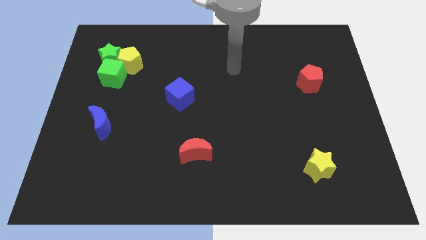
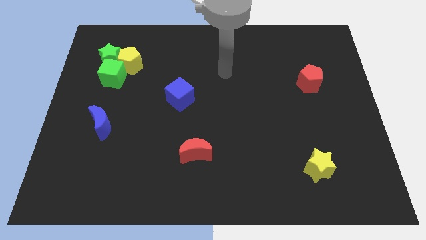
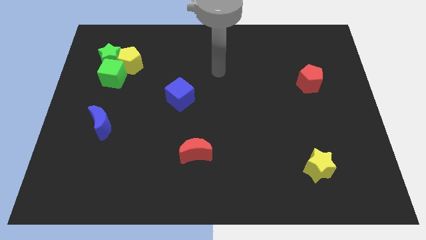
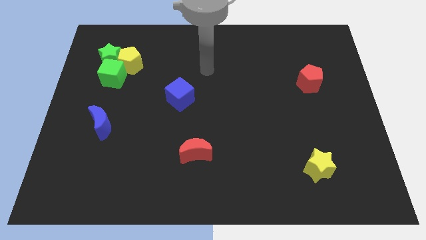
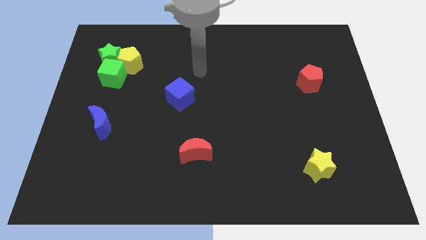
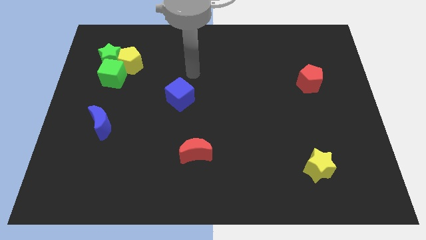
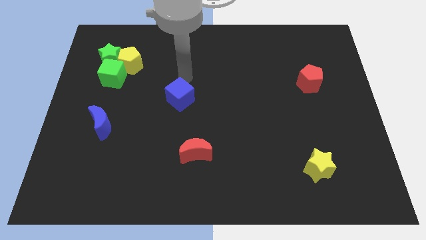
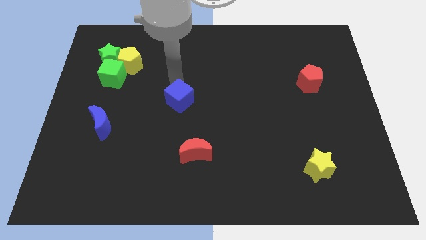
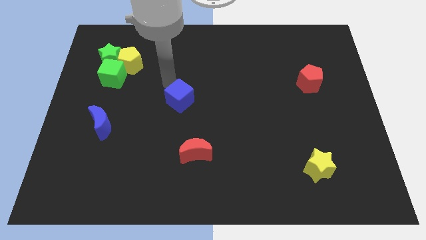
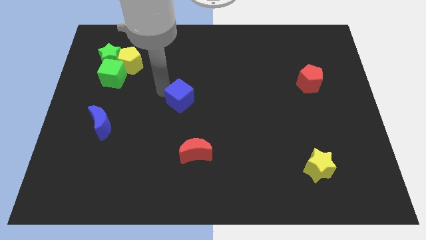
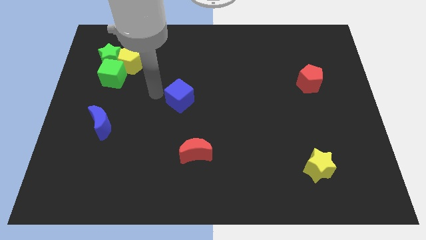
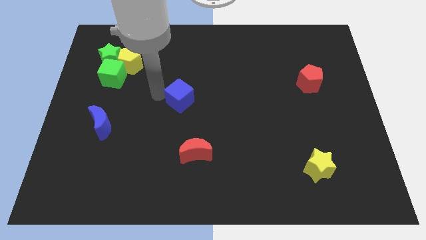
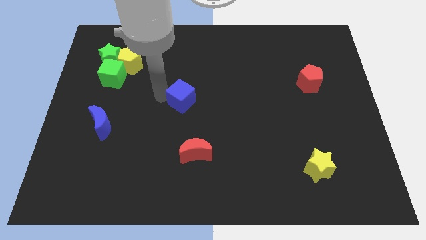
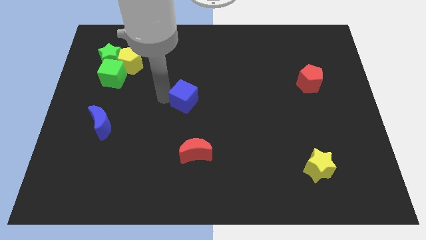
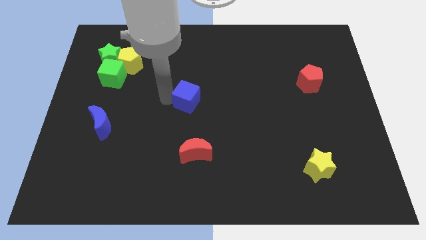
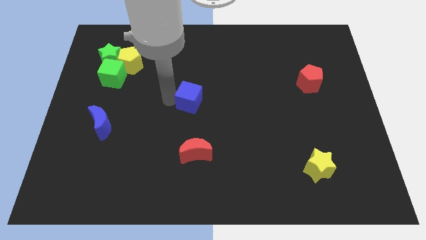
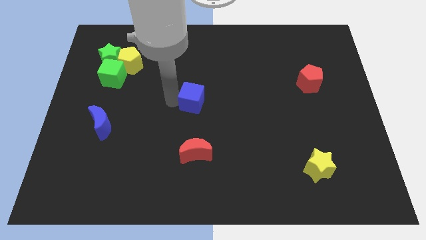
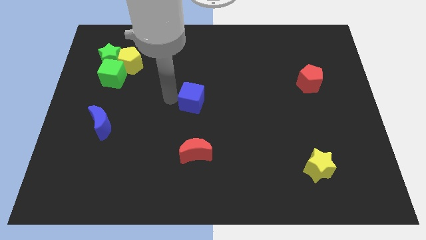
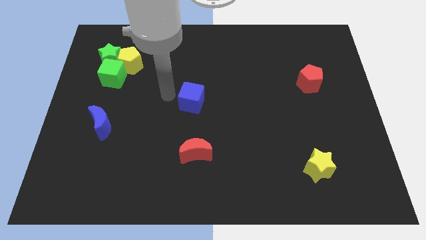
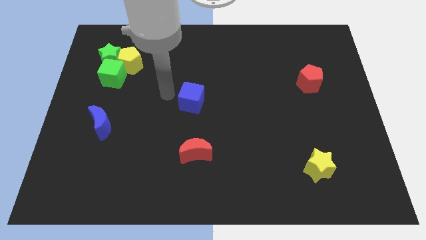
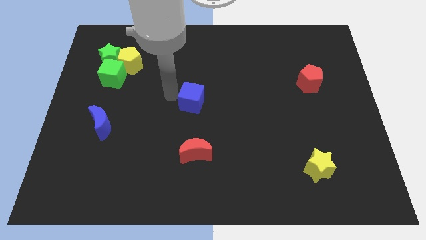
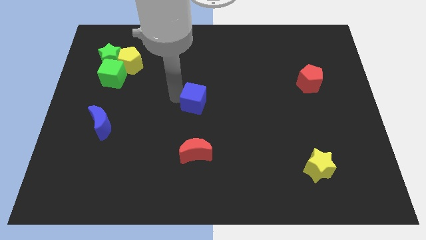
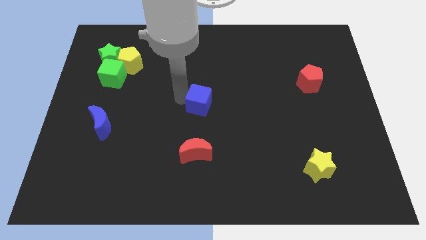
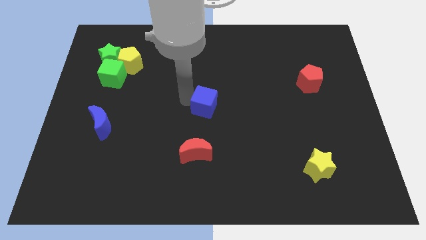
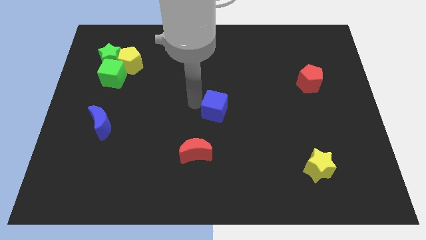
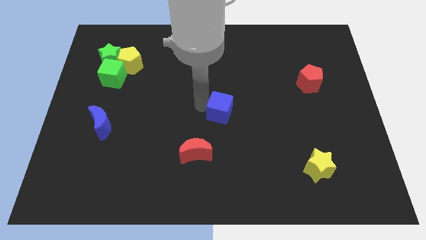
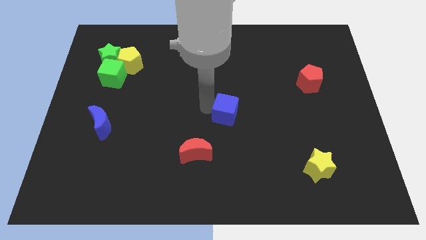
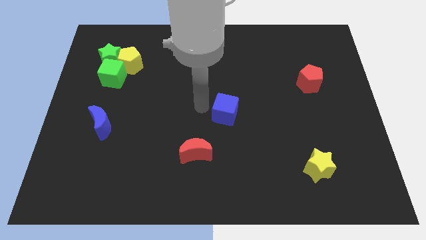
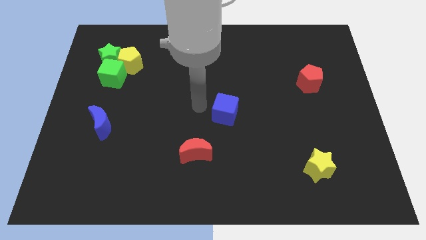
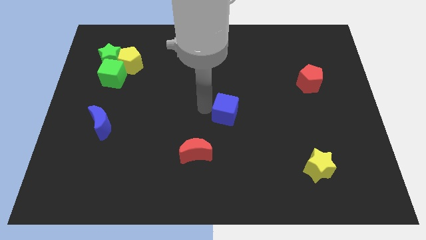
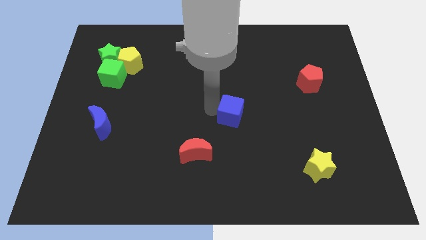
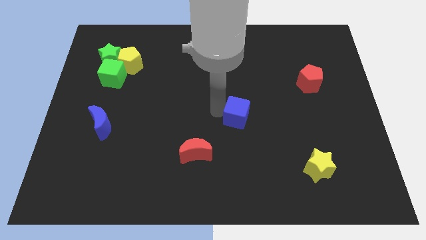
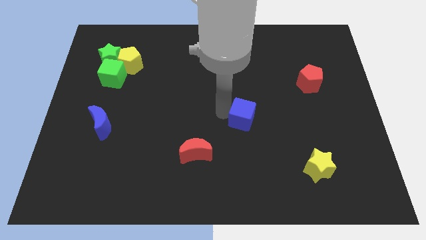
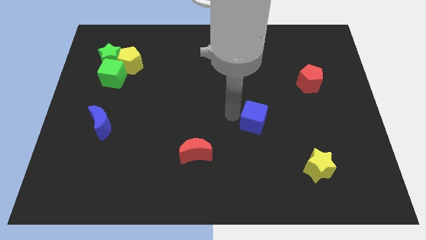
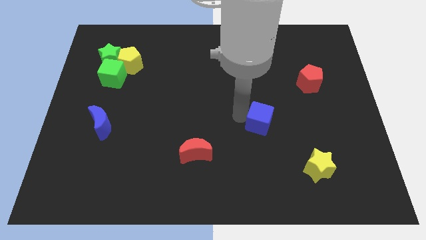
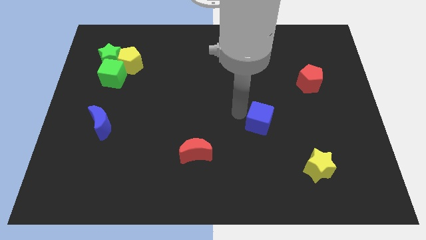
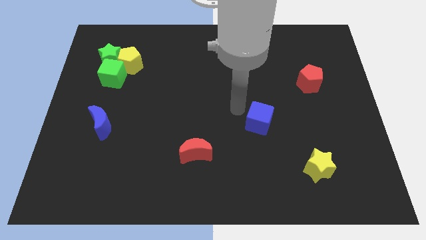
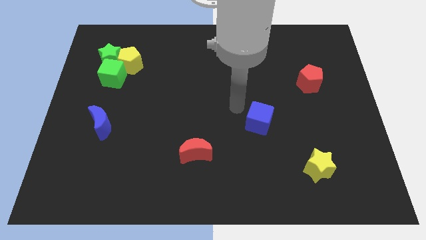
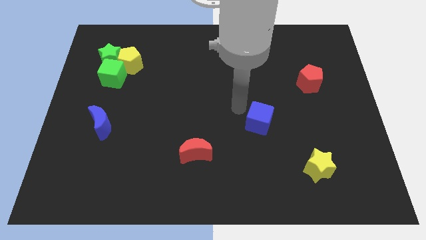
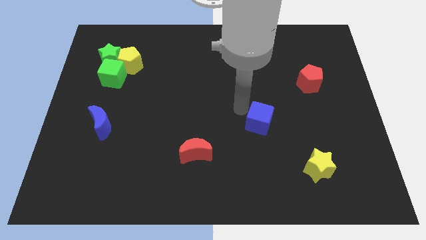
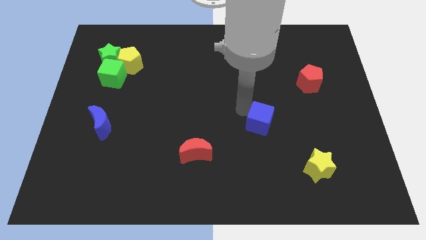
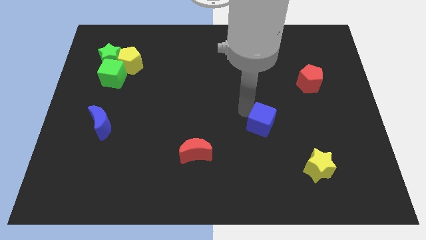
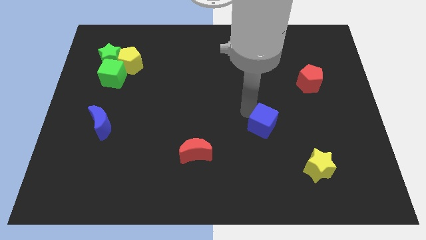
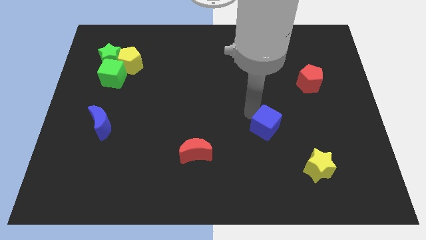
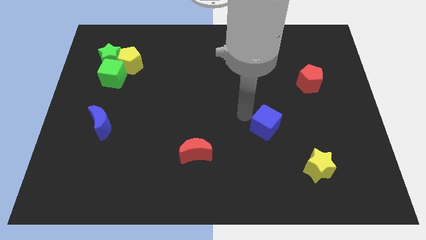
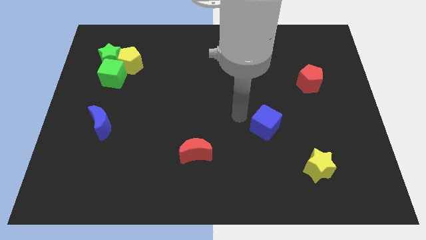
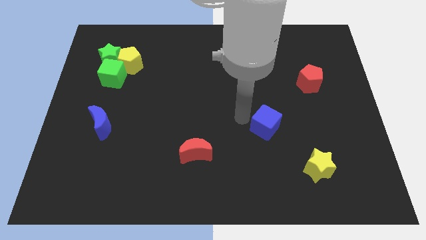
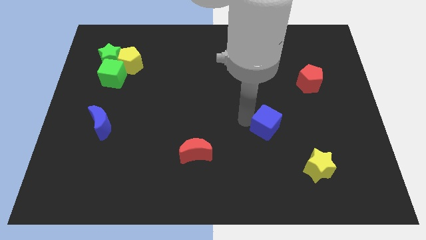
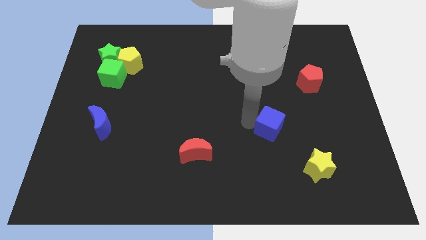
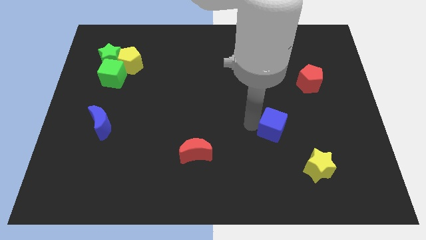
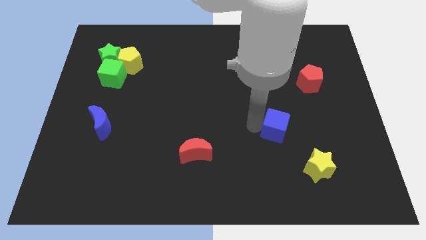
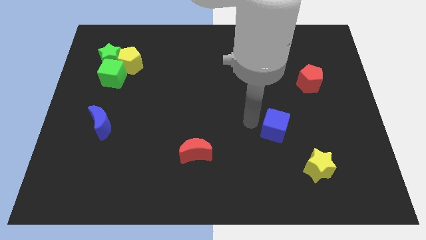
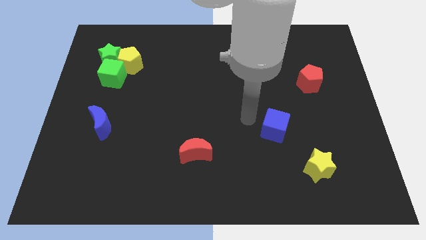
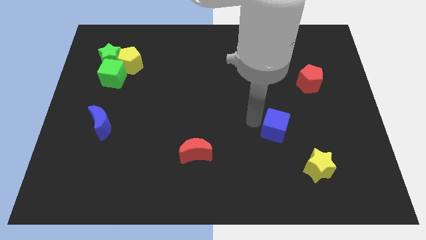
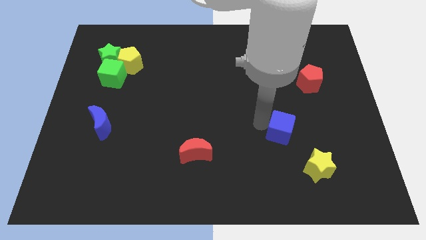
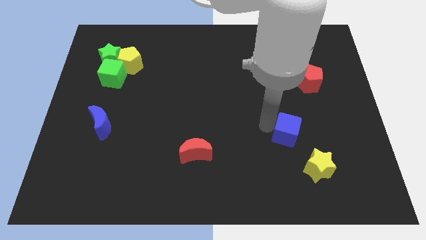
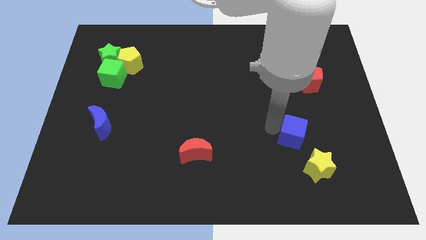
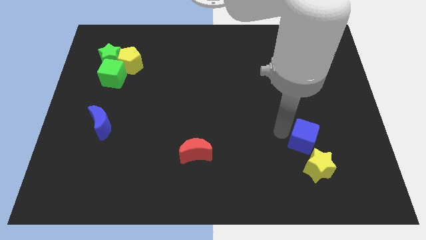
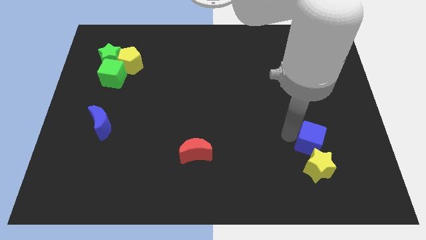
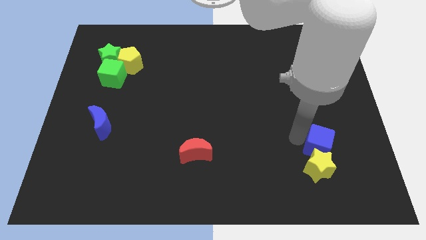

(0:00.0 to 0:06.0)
move the blue cube to the top right of the yellow star

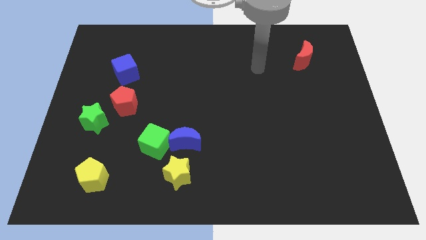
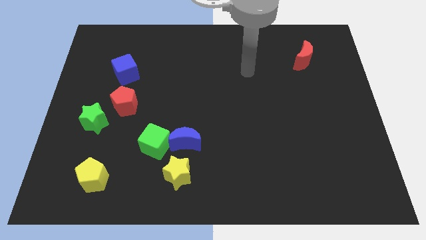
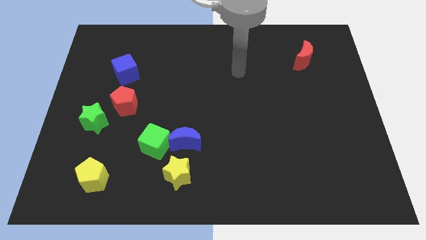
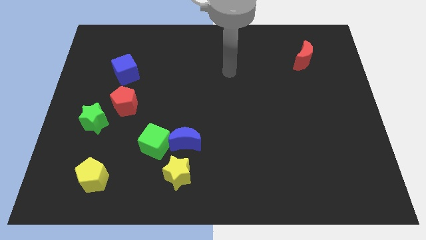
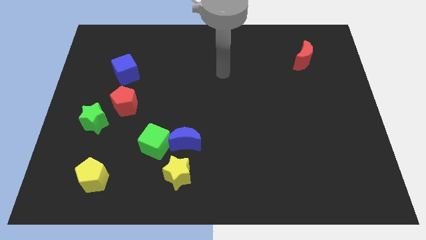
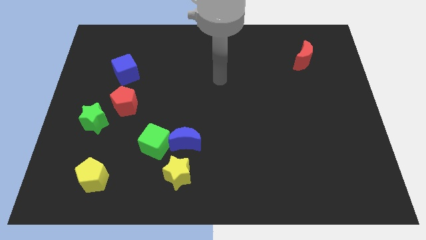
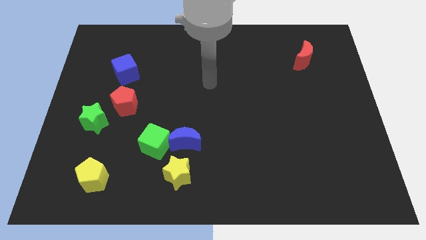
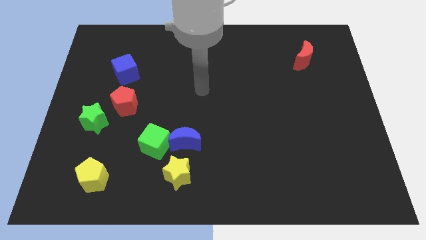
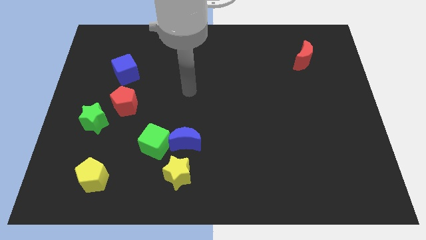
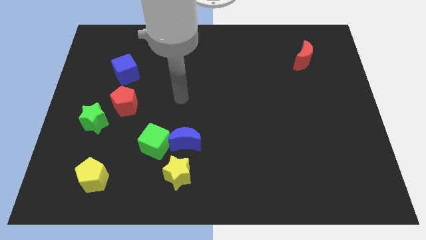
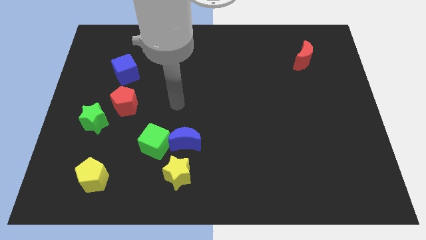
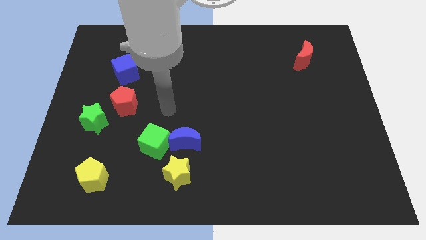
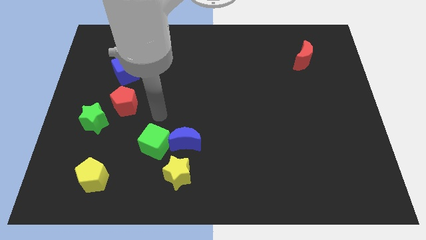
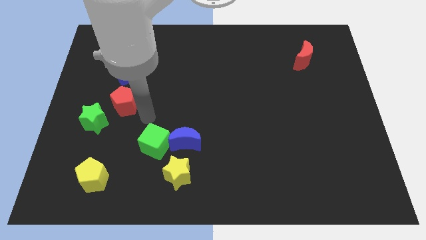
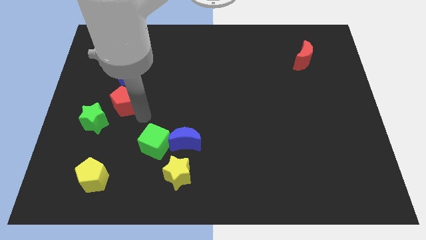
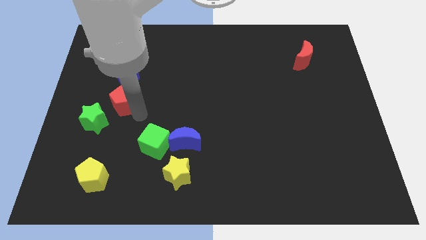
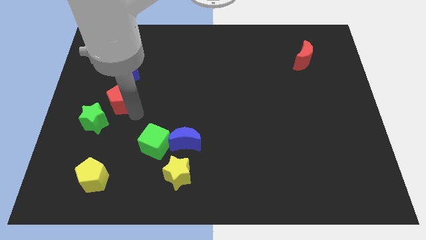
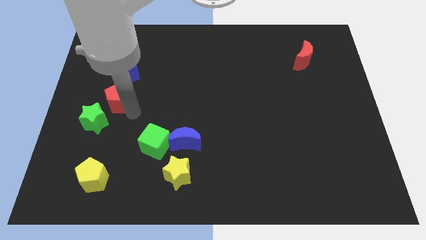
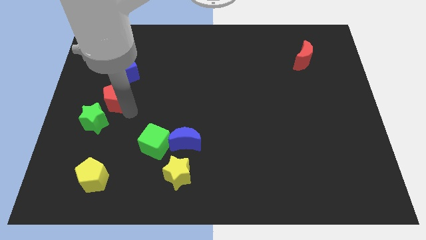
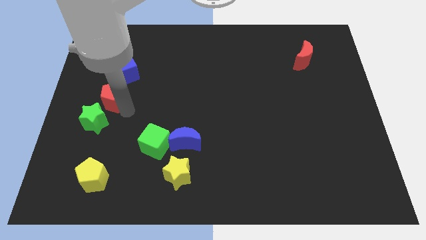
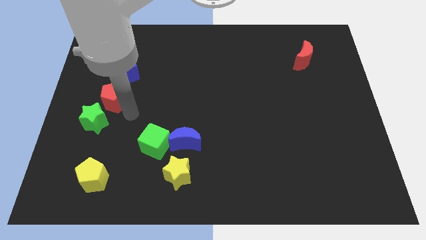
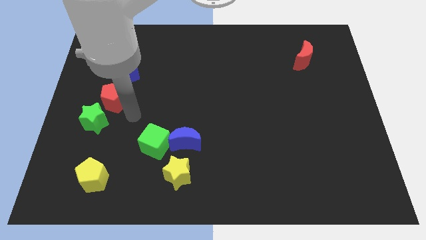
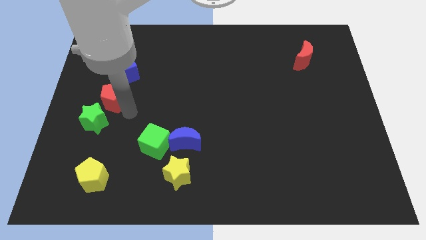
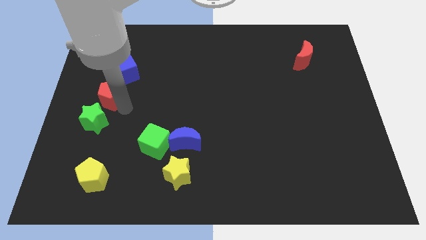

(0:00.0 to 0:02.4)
put the red pentagon diagonally down and to the left of the blue cube
